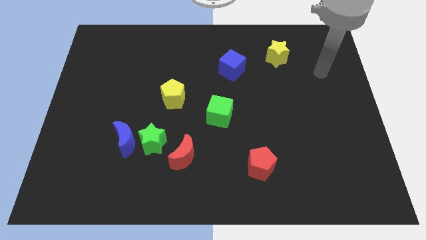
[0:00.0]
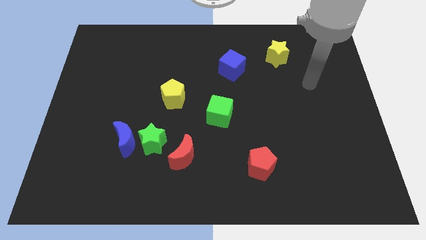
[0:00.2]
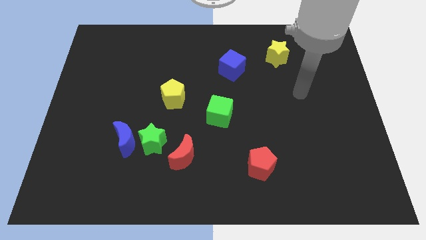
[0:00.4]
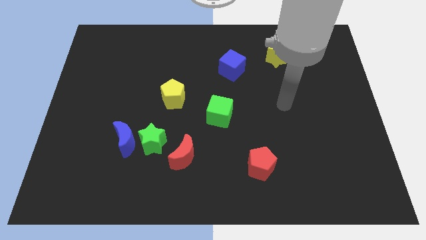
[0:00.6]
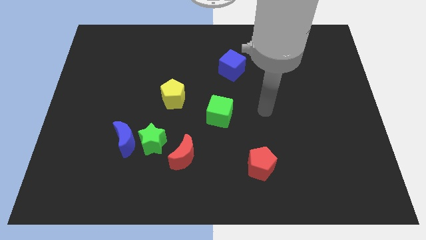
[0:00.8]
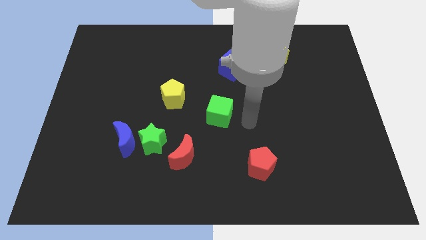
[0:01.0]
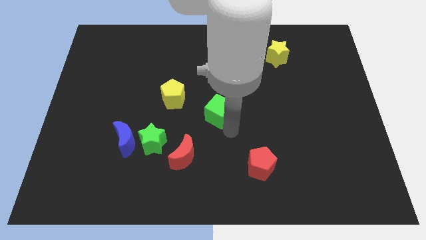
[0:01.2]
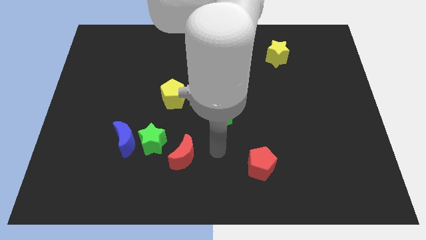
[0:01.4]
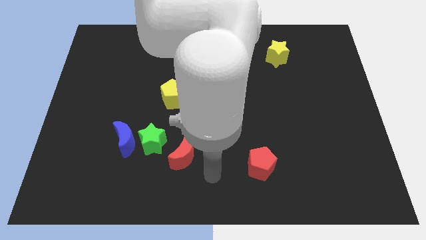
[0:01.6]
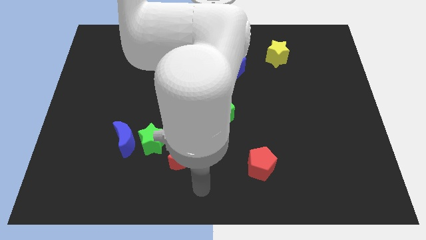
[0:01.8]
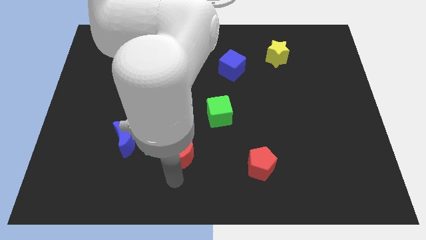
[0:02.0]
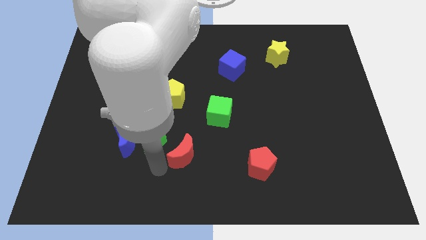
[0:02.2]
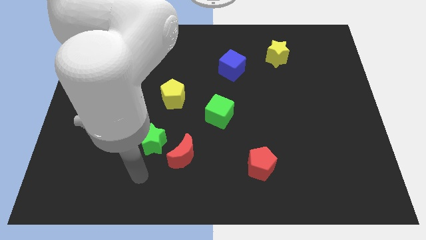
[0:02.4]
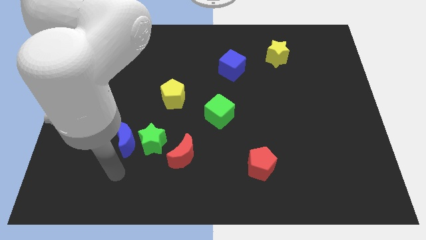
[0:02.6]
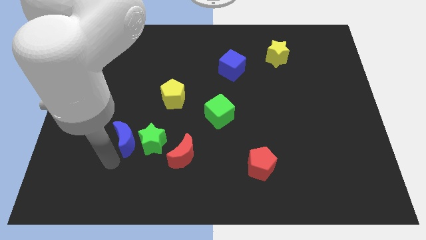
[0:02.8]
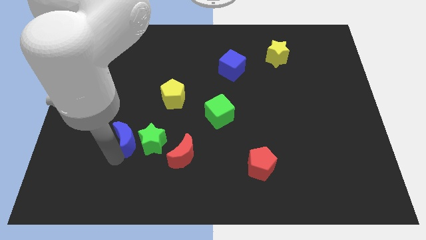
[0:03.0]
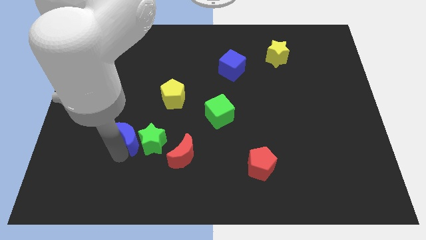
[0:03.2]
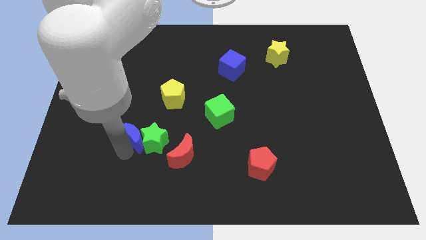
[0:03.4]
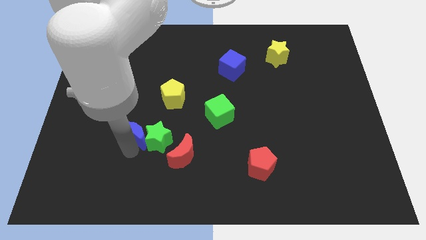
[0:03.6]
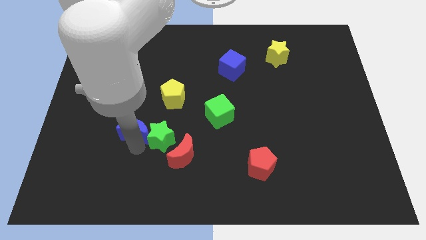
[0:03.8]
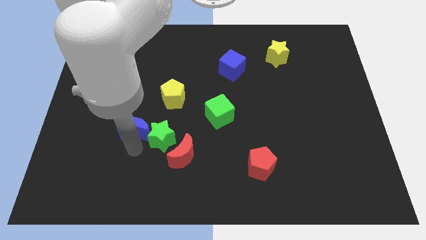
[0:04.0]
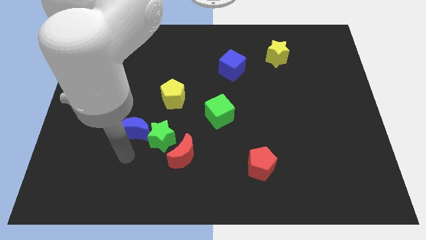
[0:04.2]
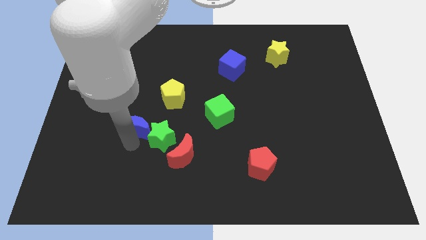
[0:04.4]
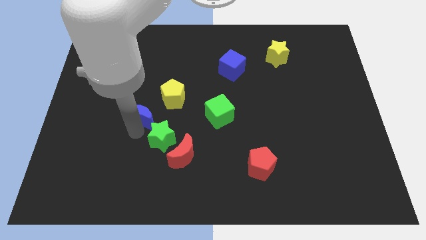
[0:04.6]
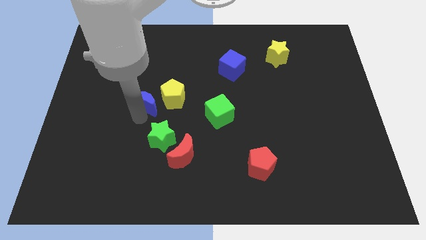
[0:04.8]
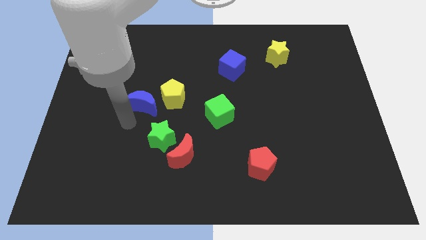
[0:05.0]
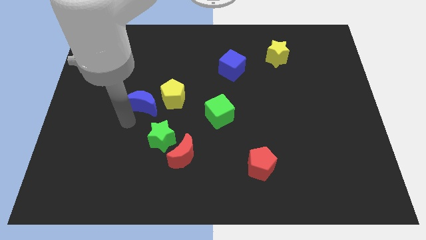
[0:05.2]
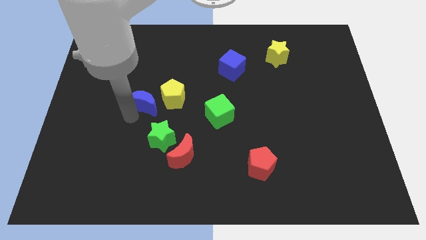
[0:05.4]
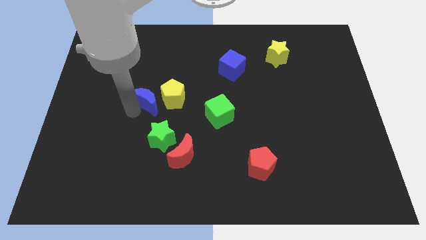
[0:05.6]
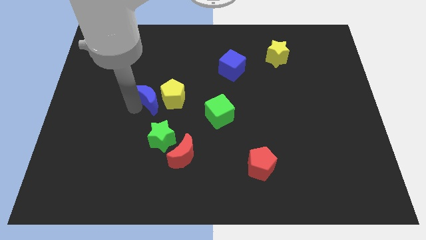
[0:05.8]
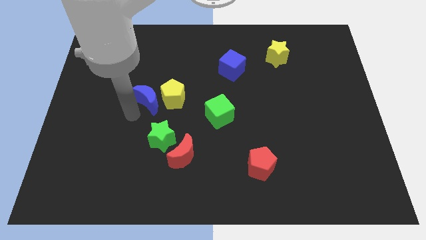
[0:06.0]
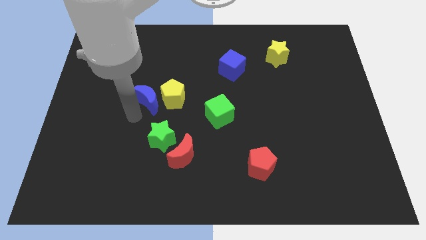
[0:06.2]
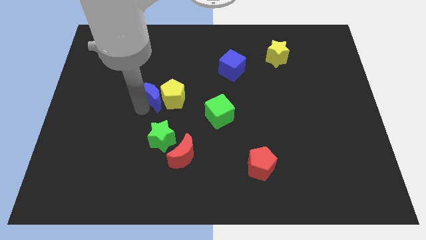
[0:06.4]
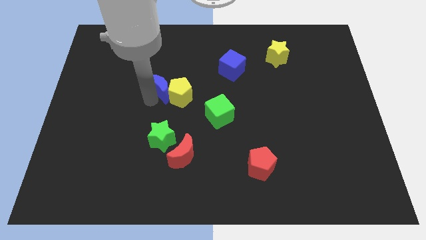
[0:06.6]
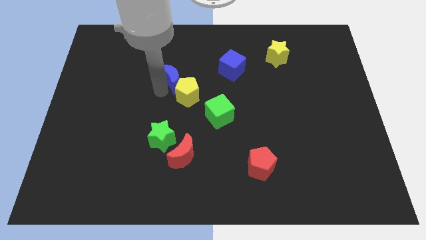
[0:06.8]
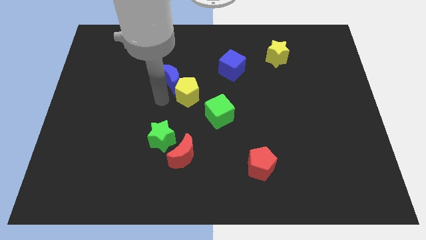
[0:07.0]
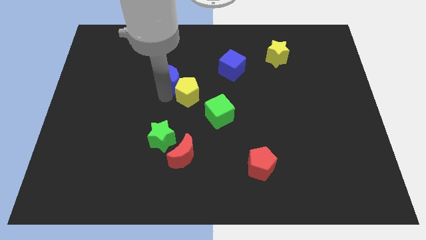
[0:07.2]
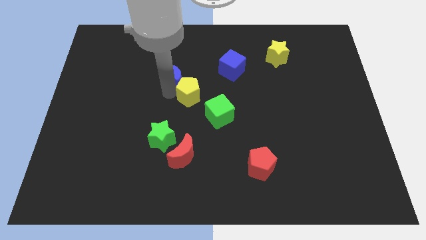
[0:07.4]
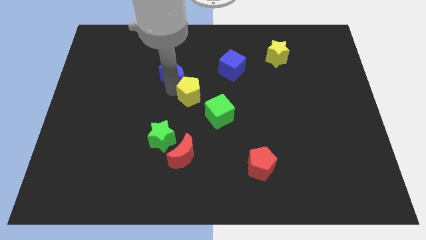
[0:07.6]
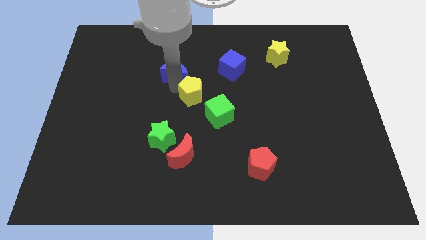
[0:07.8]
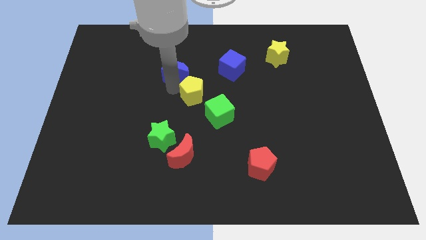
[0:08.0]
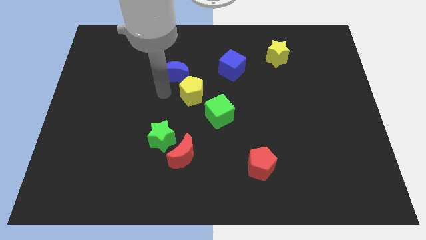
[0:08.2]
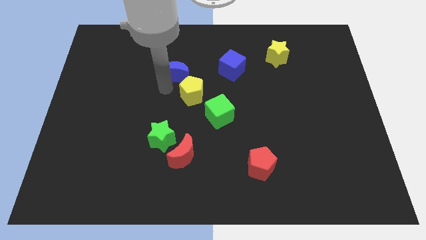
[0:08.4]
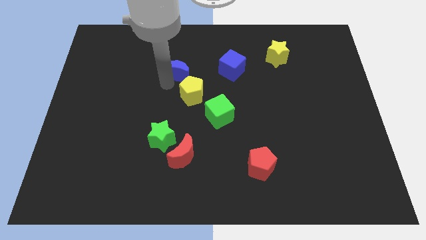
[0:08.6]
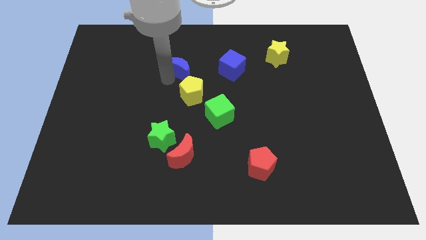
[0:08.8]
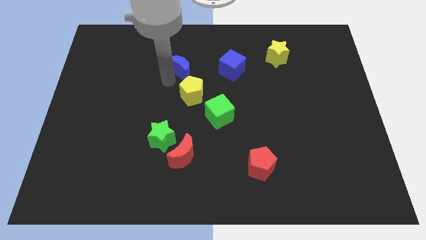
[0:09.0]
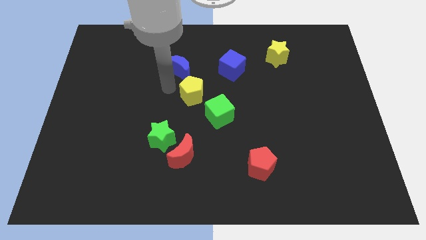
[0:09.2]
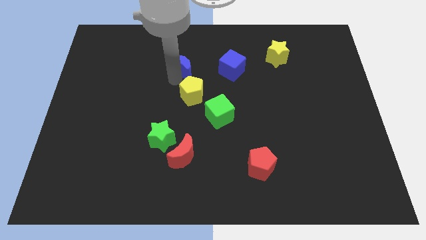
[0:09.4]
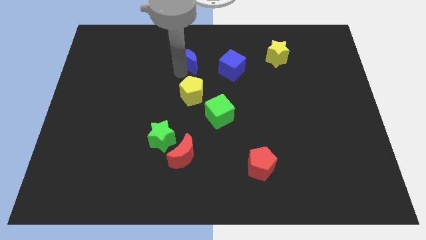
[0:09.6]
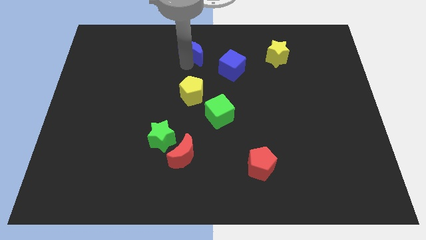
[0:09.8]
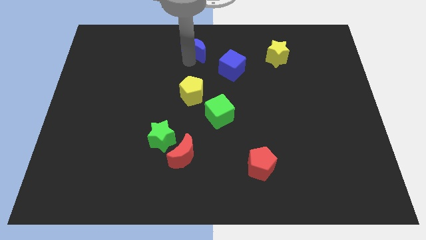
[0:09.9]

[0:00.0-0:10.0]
slide the blue moon to the top

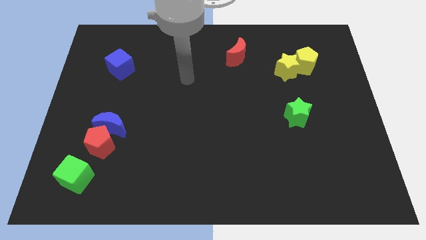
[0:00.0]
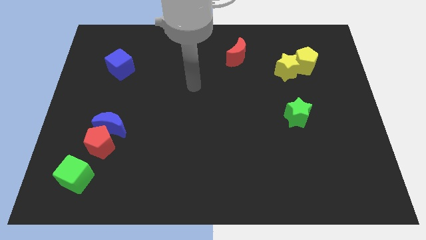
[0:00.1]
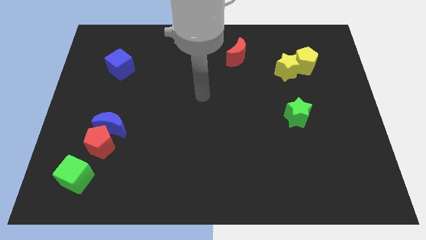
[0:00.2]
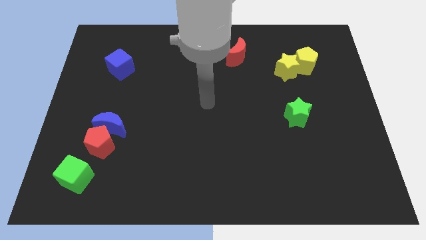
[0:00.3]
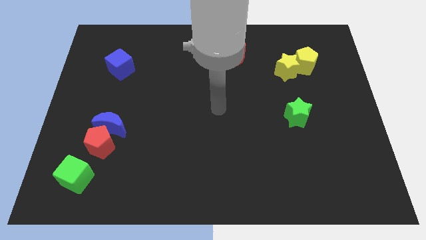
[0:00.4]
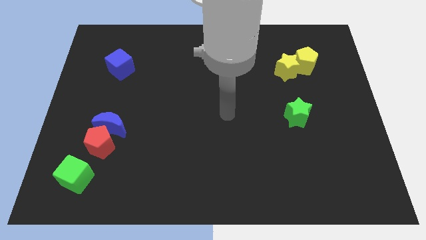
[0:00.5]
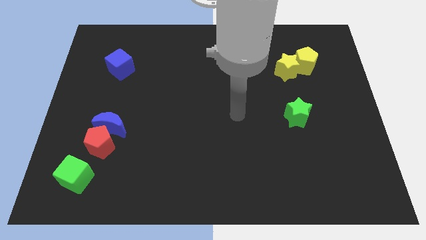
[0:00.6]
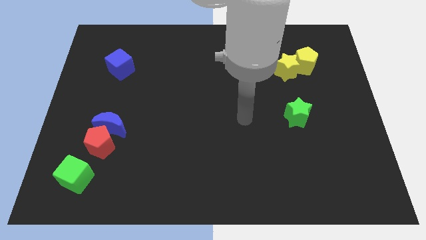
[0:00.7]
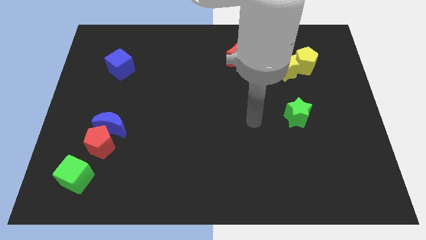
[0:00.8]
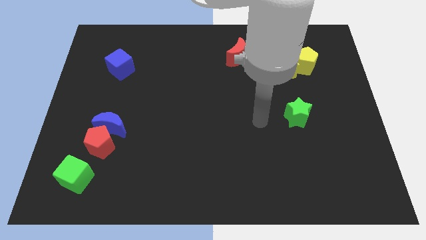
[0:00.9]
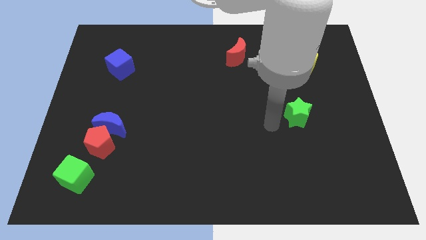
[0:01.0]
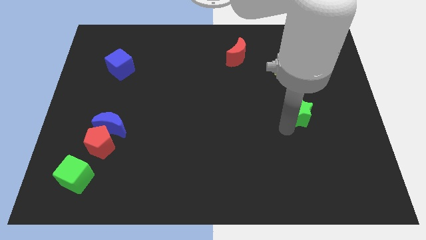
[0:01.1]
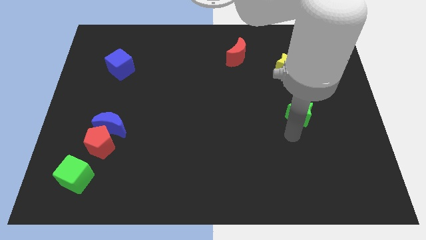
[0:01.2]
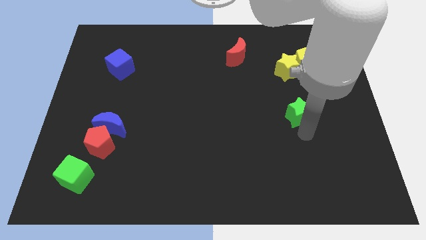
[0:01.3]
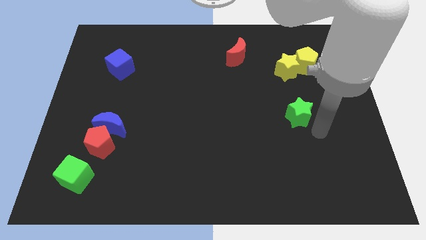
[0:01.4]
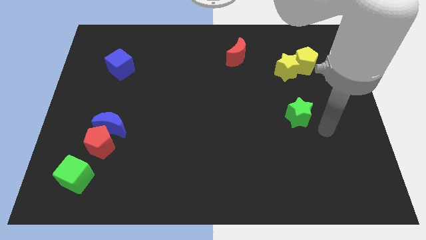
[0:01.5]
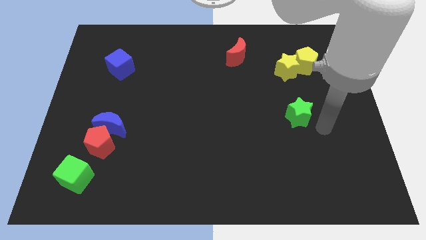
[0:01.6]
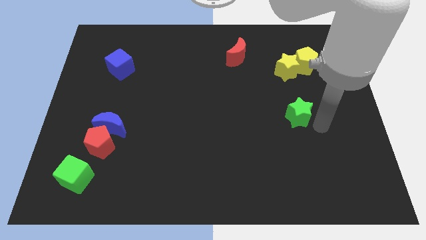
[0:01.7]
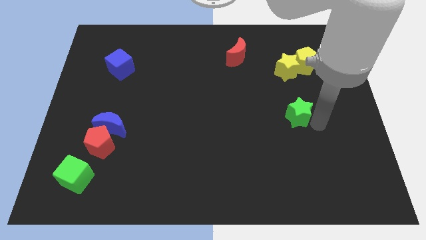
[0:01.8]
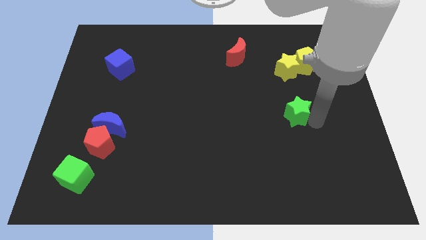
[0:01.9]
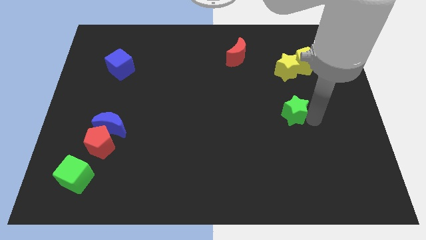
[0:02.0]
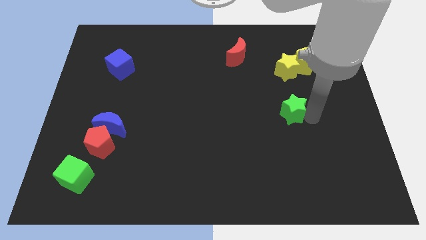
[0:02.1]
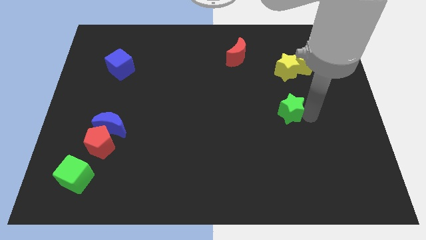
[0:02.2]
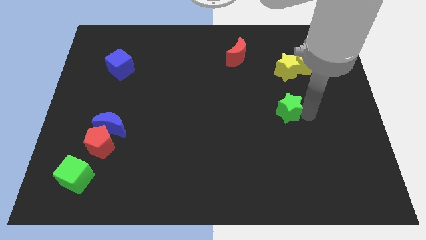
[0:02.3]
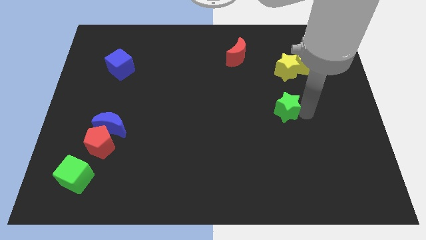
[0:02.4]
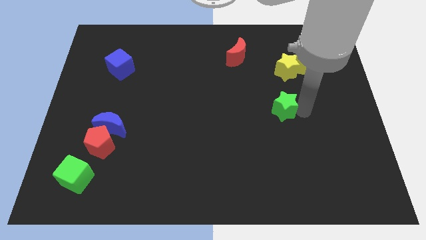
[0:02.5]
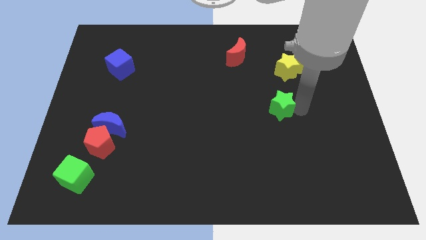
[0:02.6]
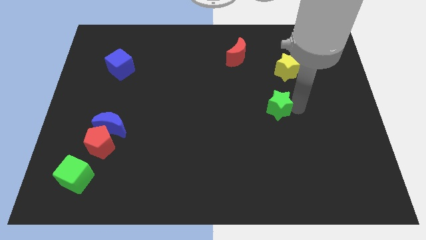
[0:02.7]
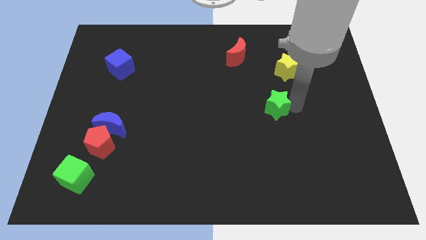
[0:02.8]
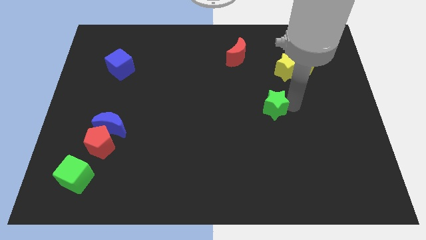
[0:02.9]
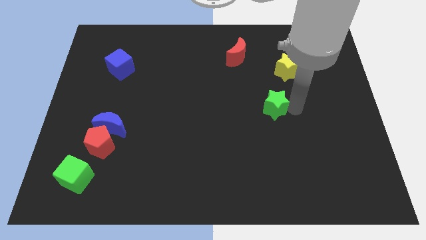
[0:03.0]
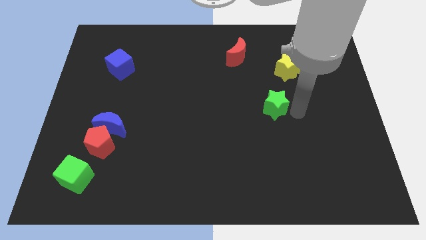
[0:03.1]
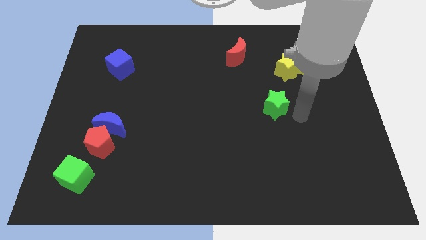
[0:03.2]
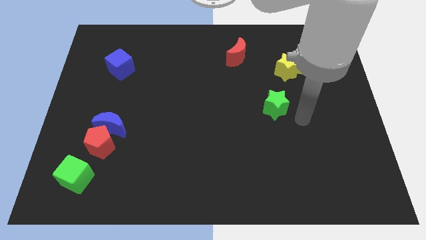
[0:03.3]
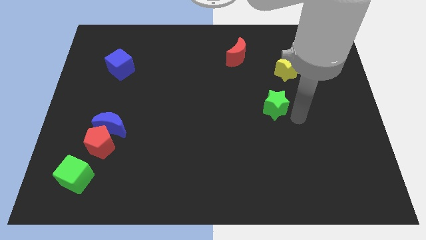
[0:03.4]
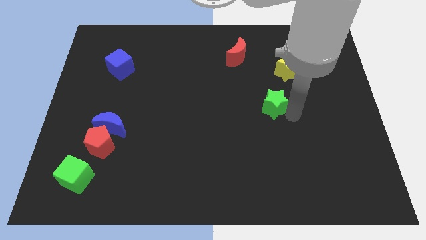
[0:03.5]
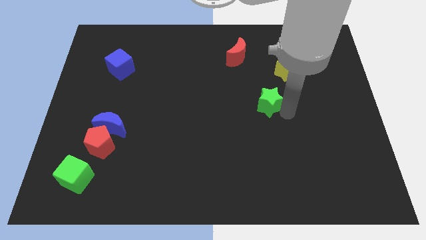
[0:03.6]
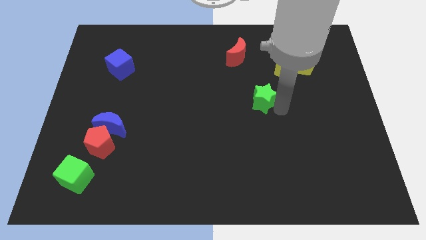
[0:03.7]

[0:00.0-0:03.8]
push the green star to the middle of the board
